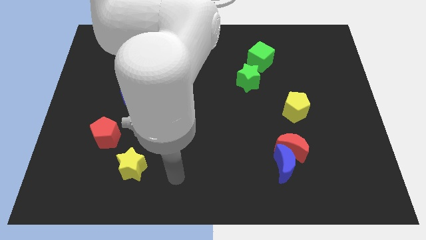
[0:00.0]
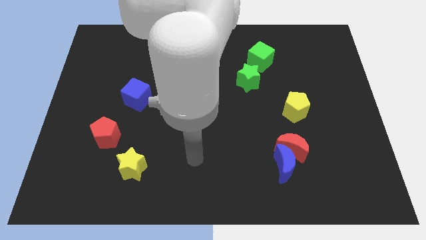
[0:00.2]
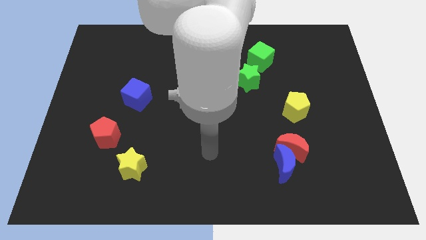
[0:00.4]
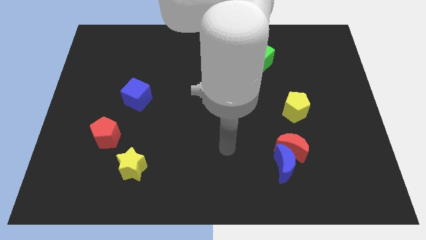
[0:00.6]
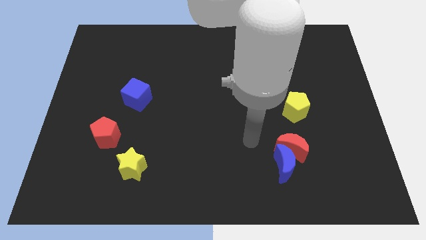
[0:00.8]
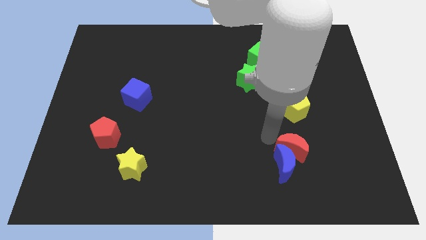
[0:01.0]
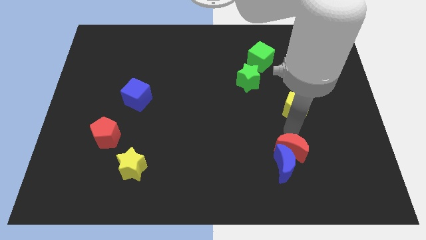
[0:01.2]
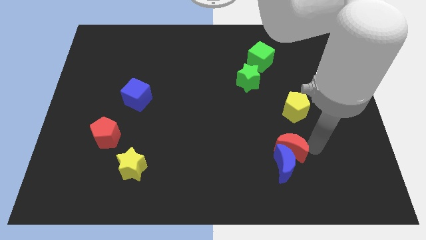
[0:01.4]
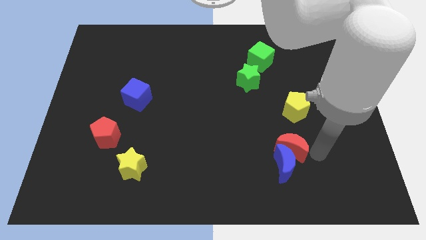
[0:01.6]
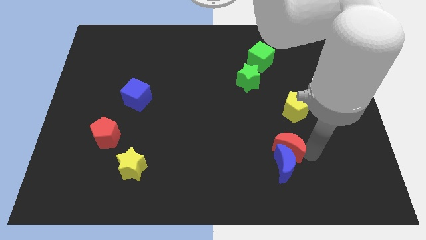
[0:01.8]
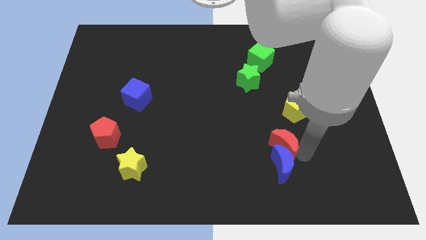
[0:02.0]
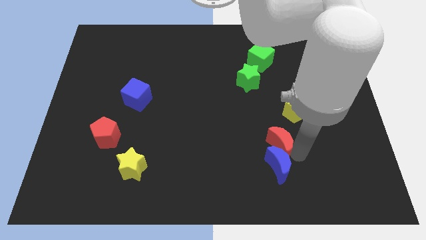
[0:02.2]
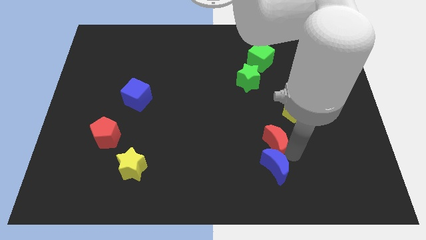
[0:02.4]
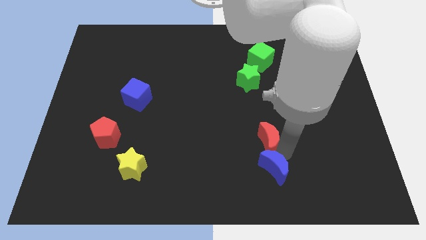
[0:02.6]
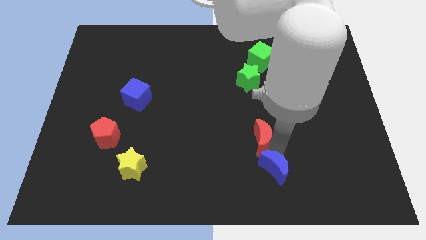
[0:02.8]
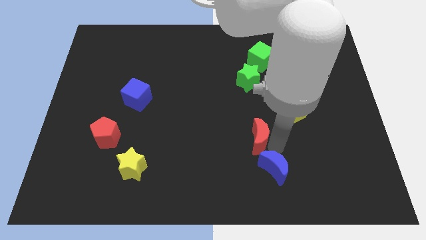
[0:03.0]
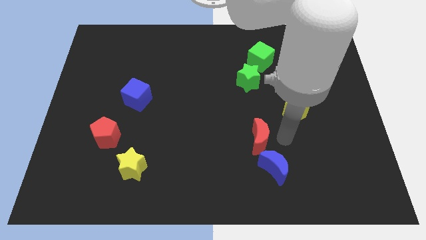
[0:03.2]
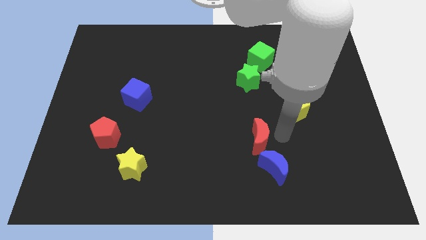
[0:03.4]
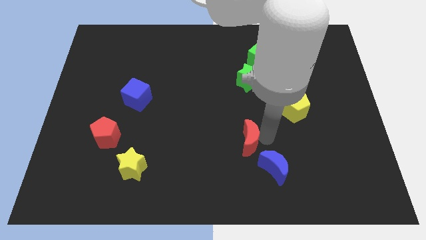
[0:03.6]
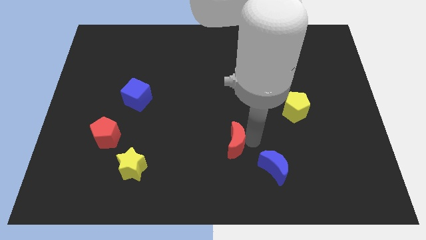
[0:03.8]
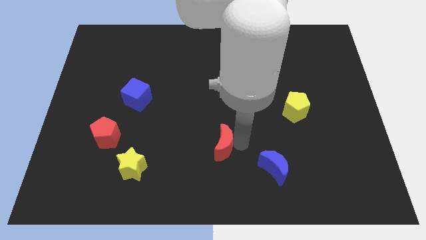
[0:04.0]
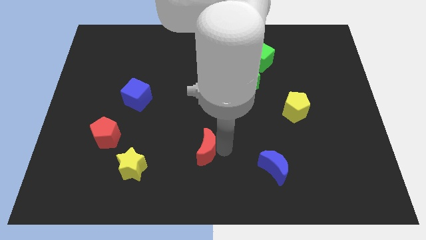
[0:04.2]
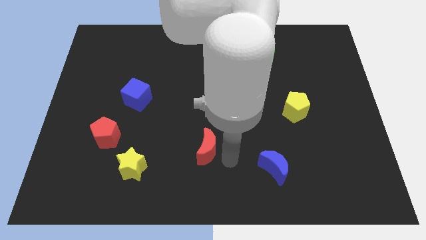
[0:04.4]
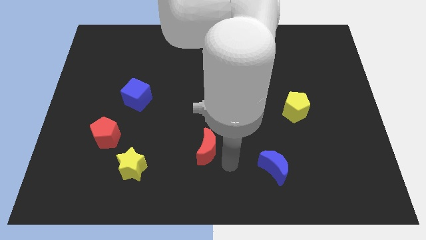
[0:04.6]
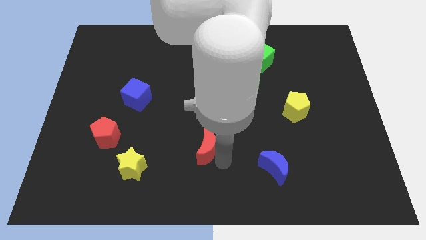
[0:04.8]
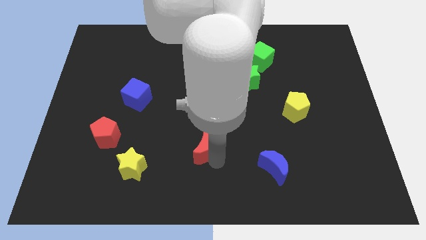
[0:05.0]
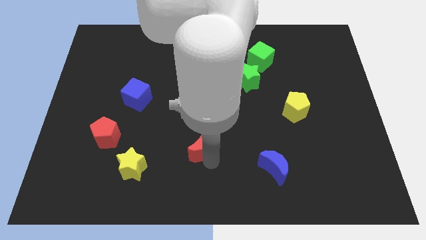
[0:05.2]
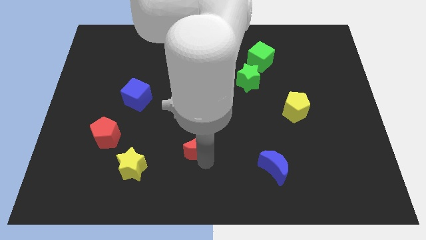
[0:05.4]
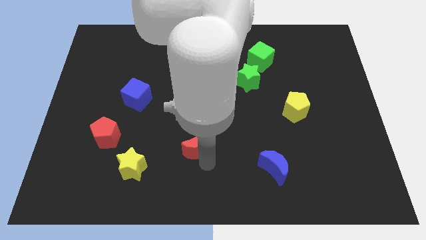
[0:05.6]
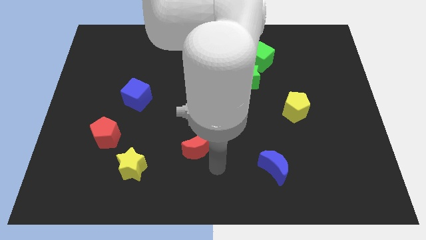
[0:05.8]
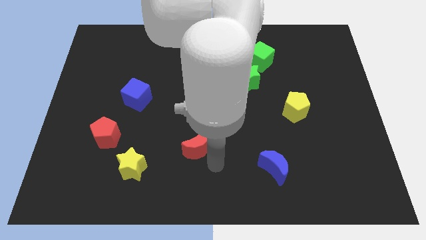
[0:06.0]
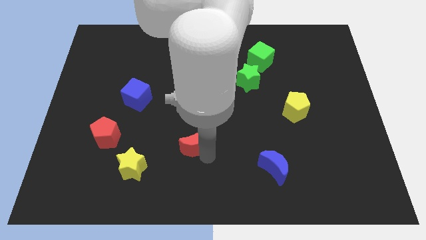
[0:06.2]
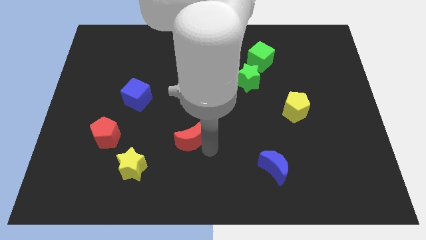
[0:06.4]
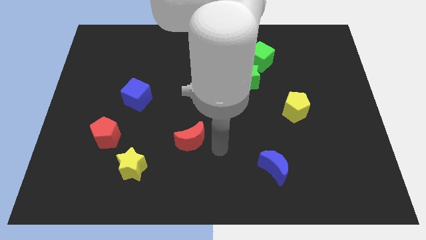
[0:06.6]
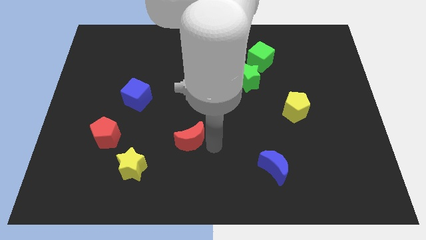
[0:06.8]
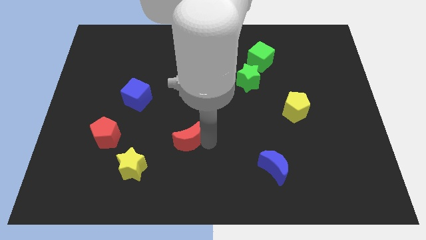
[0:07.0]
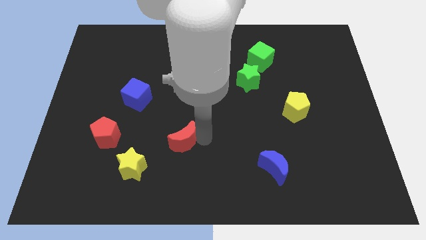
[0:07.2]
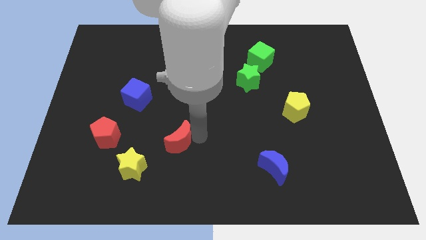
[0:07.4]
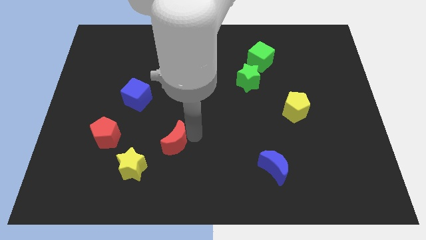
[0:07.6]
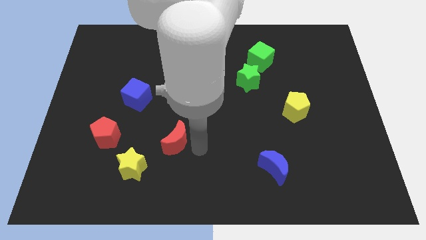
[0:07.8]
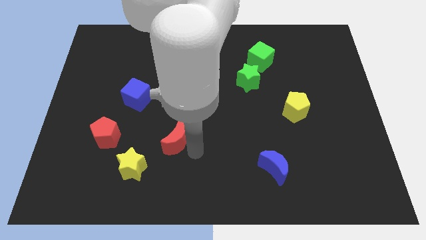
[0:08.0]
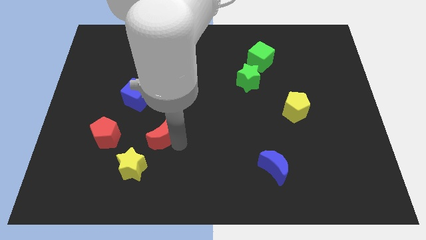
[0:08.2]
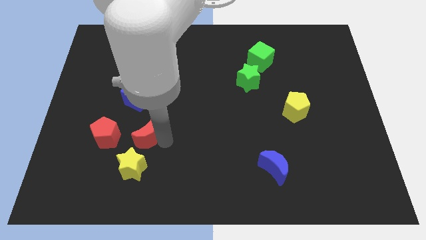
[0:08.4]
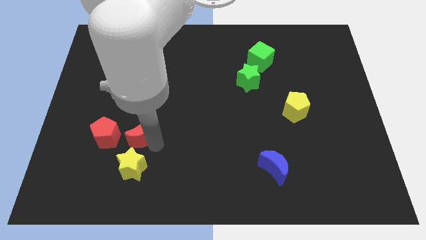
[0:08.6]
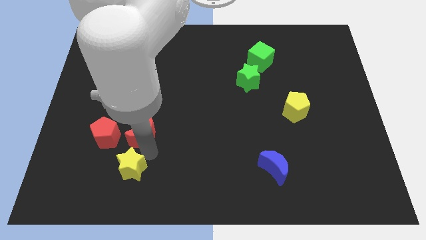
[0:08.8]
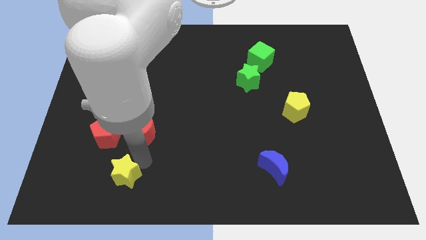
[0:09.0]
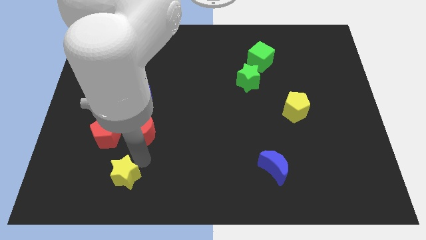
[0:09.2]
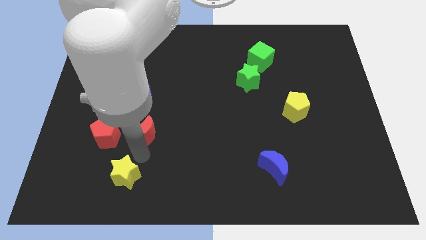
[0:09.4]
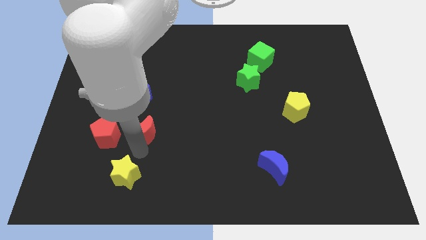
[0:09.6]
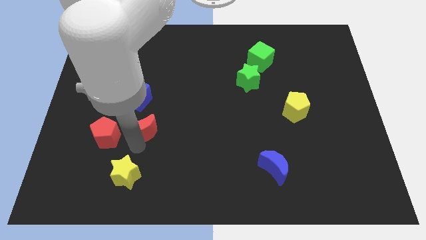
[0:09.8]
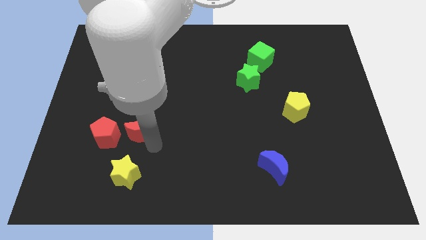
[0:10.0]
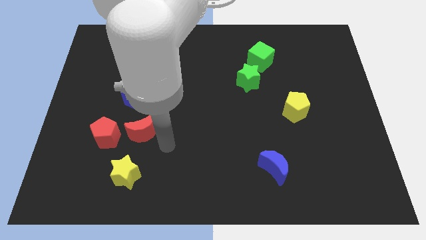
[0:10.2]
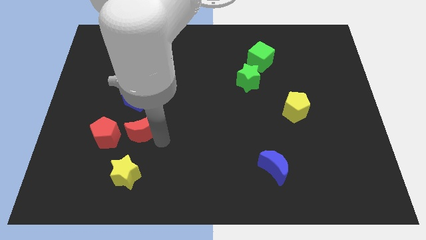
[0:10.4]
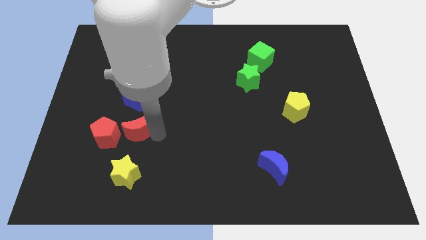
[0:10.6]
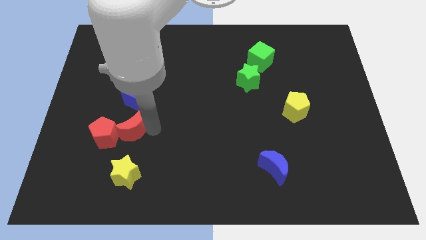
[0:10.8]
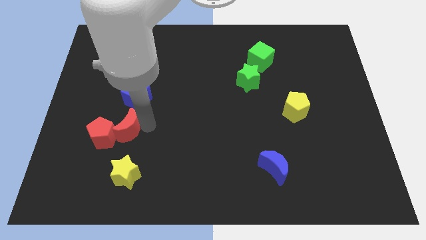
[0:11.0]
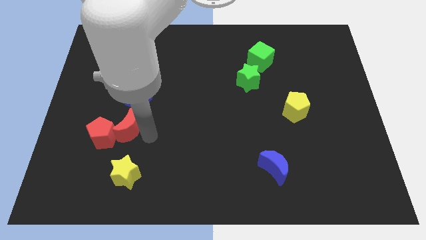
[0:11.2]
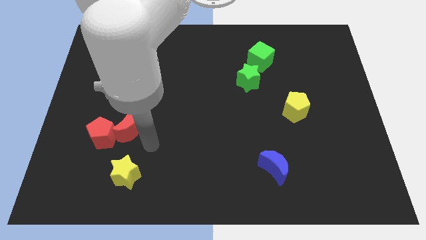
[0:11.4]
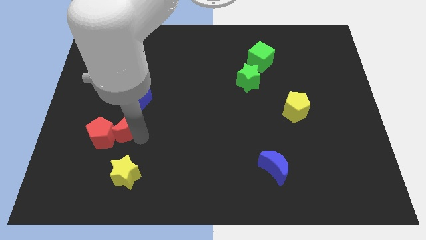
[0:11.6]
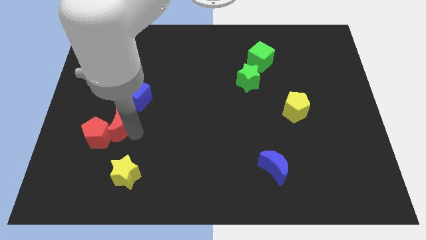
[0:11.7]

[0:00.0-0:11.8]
slide the red moon to the bottom left of the blue cube

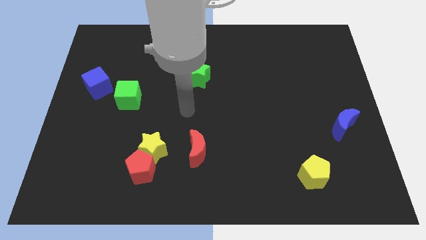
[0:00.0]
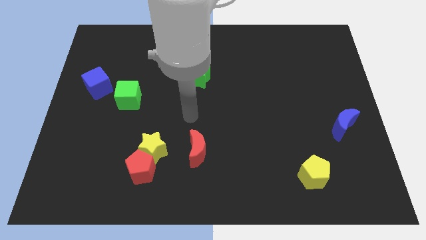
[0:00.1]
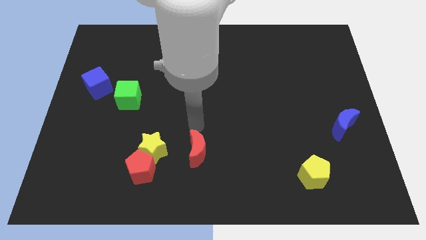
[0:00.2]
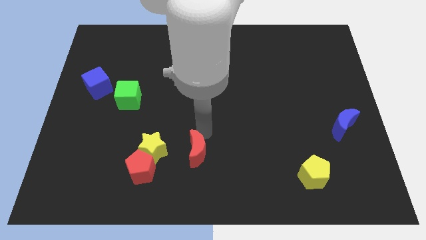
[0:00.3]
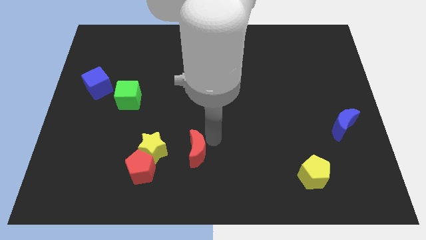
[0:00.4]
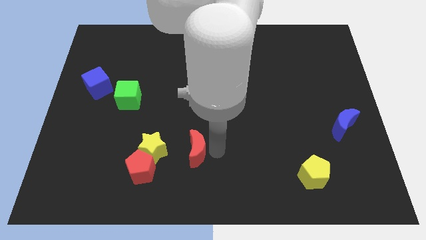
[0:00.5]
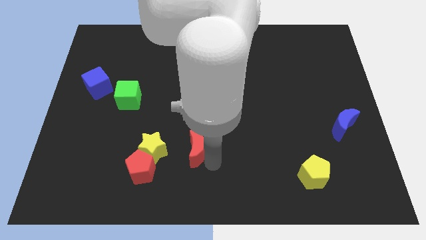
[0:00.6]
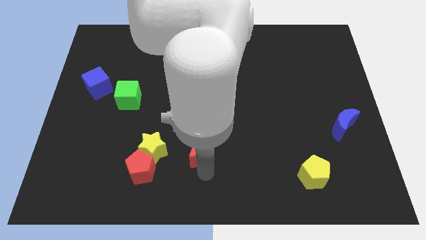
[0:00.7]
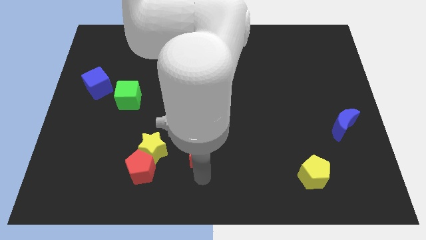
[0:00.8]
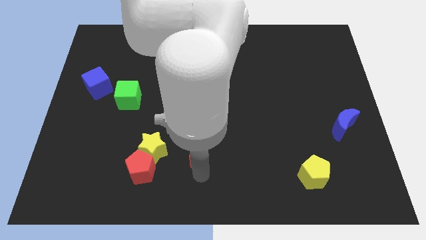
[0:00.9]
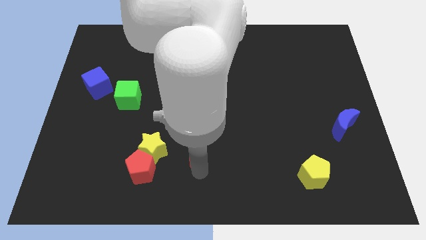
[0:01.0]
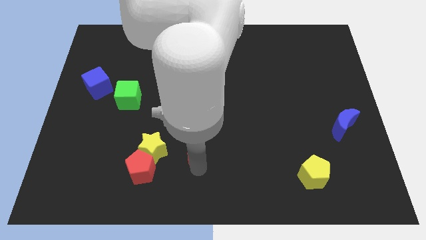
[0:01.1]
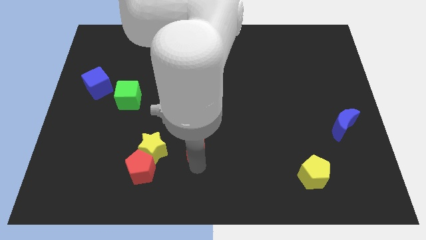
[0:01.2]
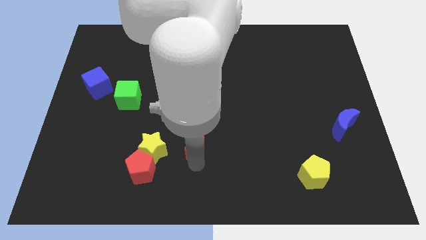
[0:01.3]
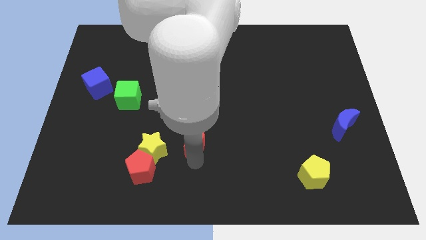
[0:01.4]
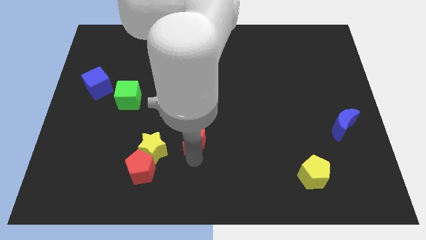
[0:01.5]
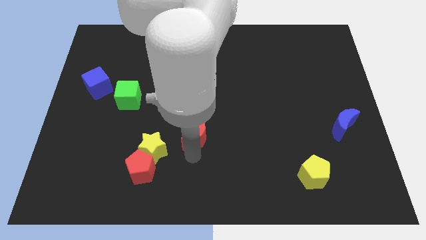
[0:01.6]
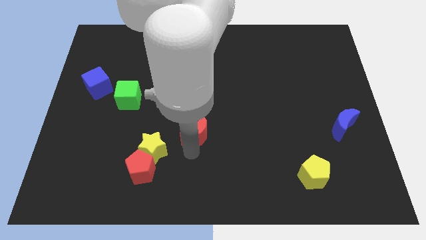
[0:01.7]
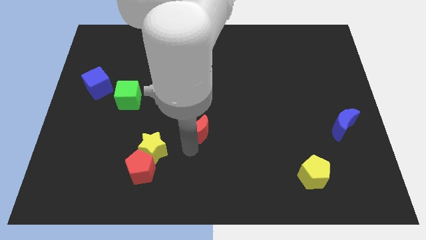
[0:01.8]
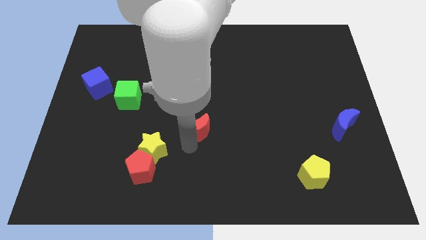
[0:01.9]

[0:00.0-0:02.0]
move the red moon below the green star
